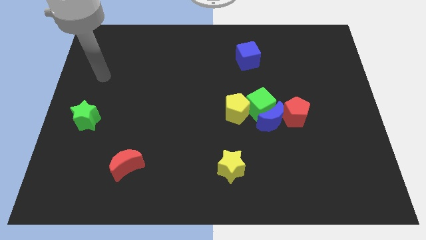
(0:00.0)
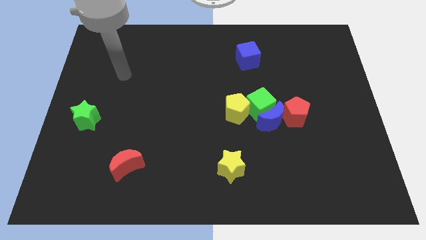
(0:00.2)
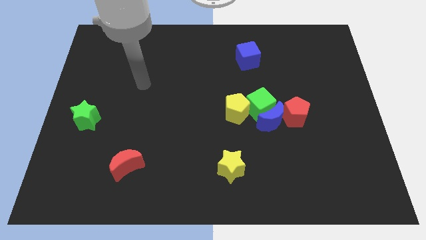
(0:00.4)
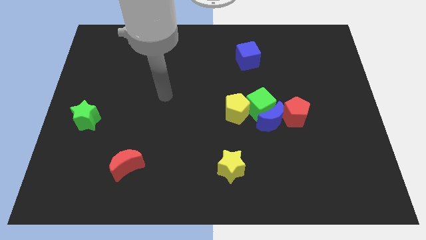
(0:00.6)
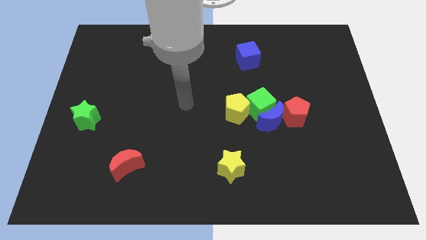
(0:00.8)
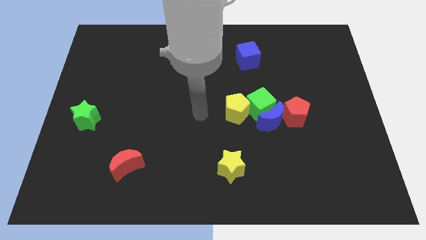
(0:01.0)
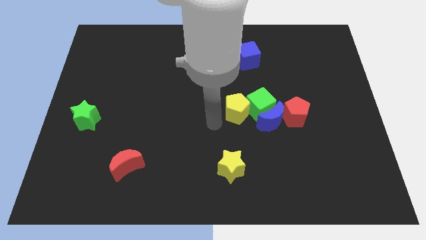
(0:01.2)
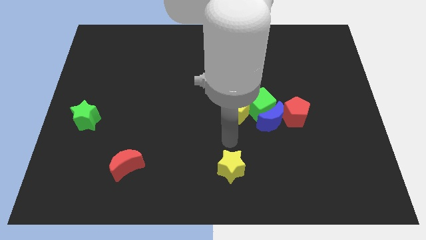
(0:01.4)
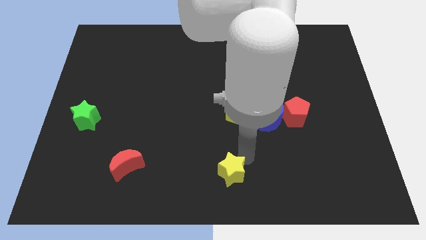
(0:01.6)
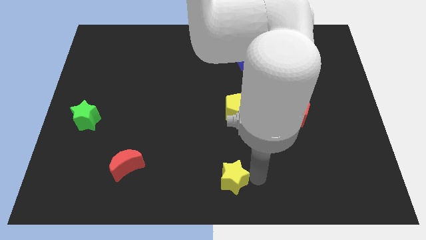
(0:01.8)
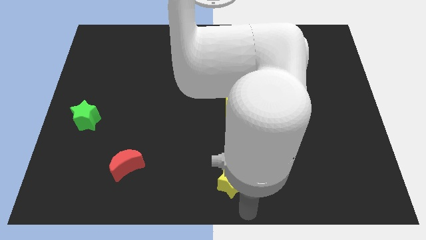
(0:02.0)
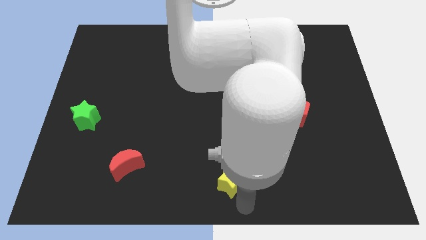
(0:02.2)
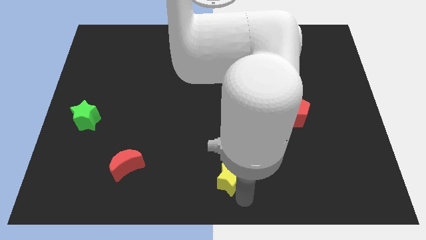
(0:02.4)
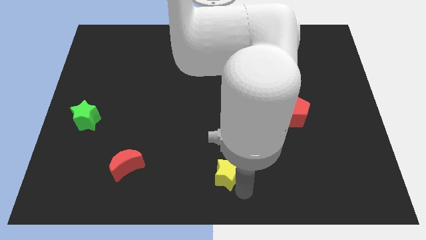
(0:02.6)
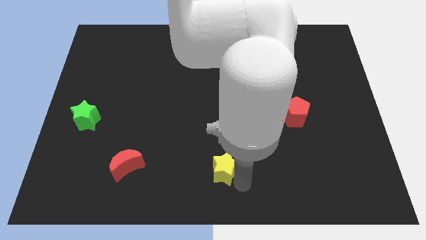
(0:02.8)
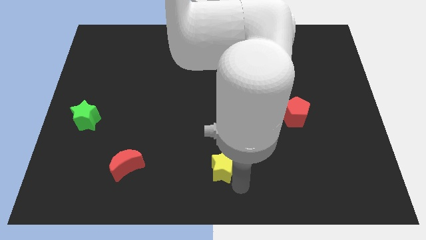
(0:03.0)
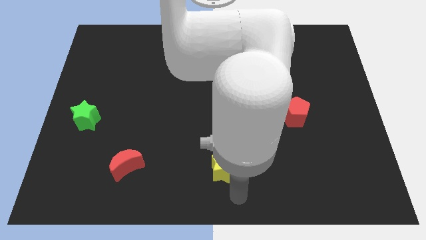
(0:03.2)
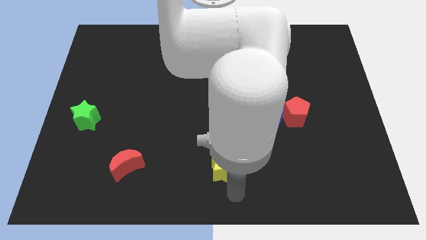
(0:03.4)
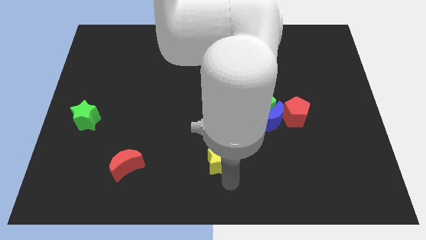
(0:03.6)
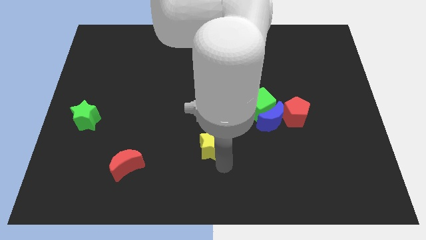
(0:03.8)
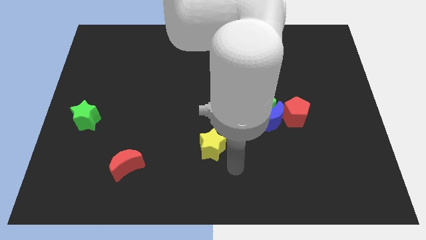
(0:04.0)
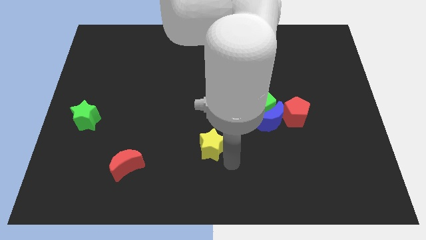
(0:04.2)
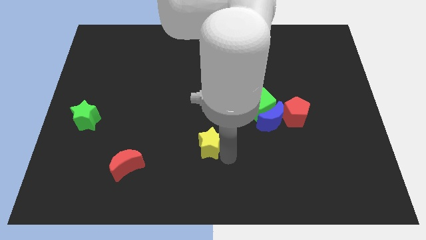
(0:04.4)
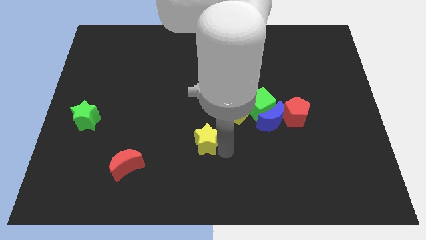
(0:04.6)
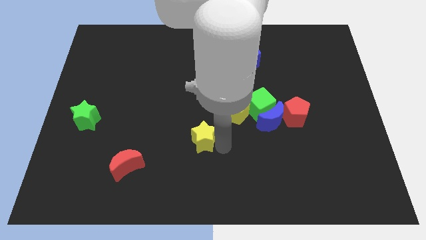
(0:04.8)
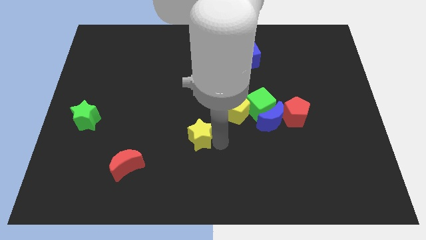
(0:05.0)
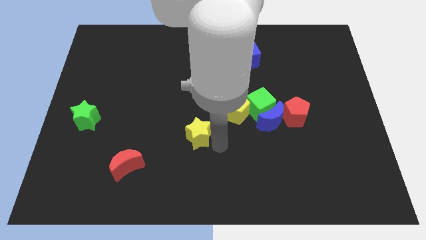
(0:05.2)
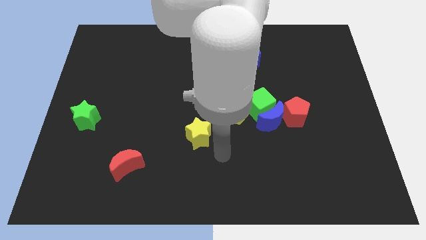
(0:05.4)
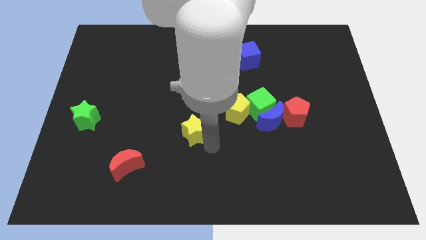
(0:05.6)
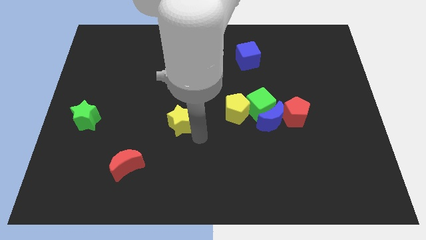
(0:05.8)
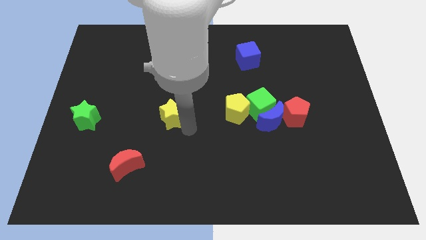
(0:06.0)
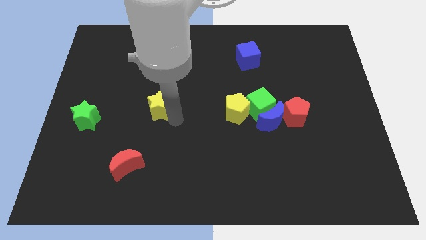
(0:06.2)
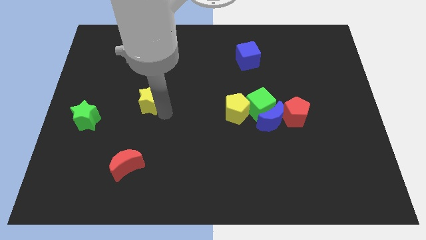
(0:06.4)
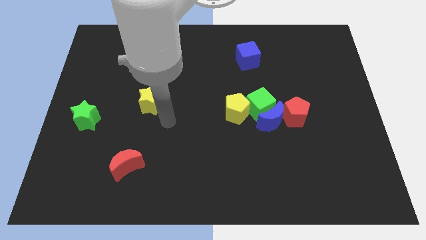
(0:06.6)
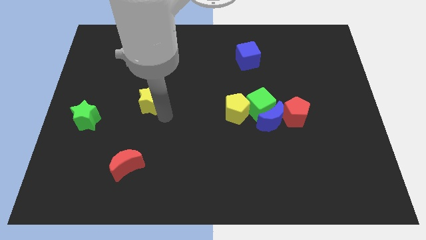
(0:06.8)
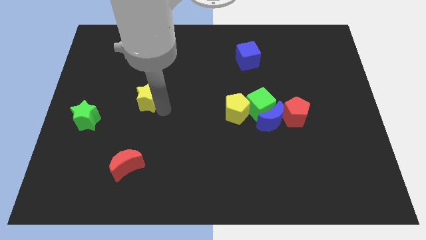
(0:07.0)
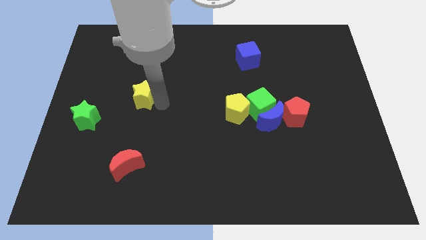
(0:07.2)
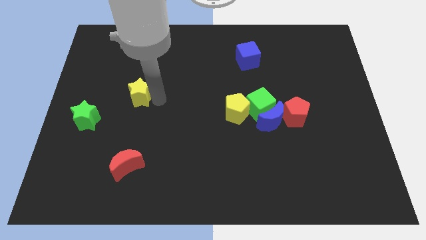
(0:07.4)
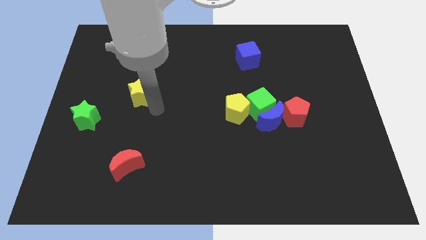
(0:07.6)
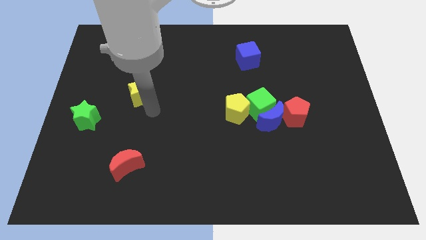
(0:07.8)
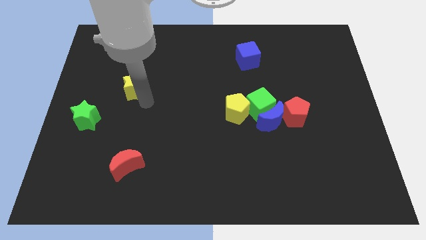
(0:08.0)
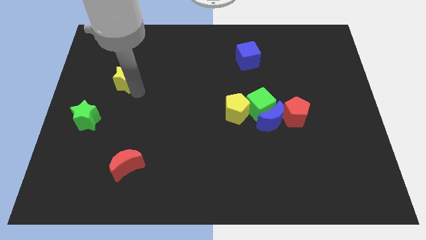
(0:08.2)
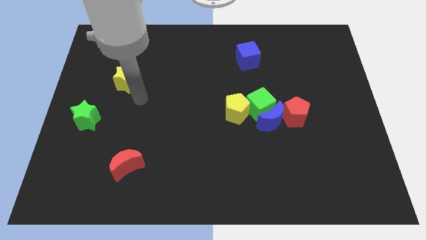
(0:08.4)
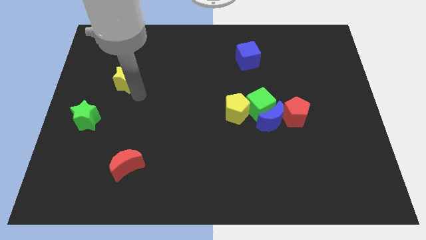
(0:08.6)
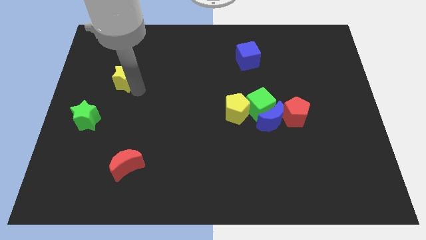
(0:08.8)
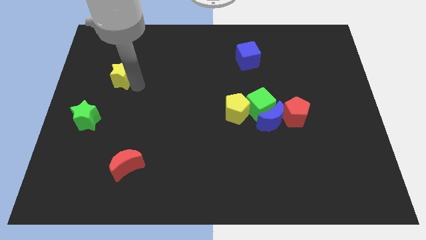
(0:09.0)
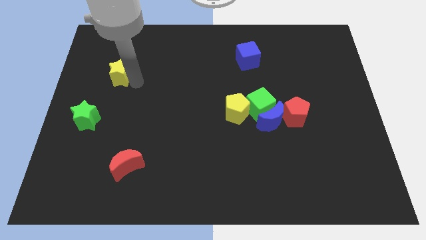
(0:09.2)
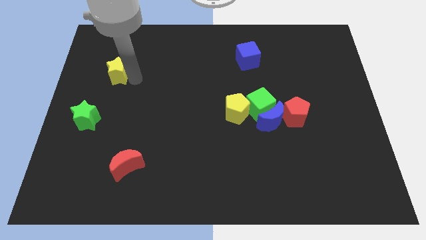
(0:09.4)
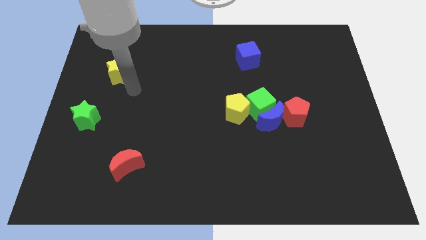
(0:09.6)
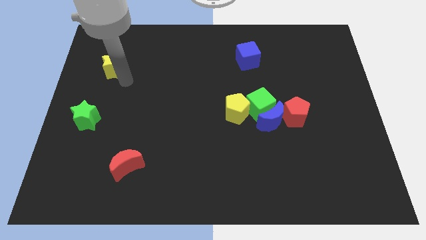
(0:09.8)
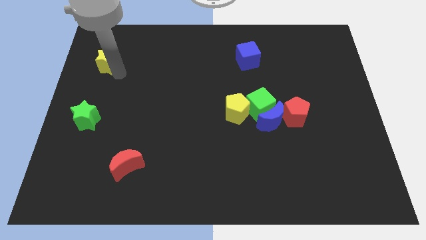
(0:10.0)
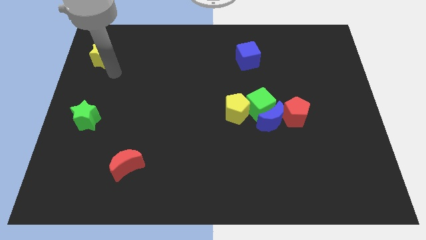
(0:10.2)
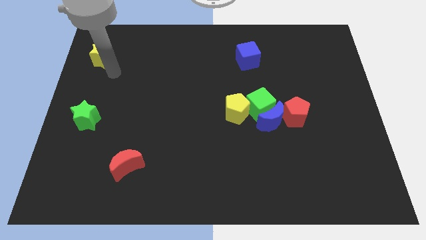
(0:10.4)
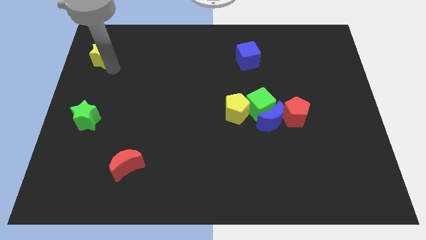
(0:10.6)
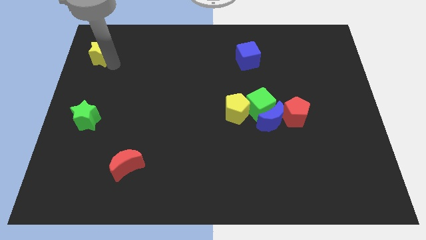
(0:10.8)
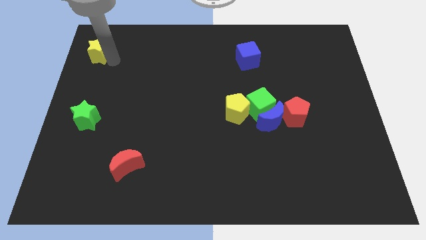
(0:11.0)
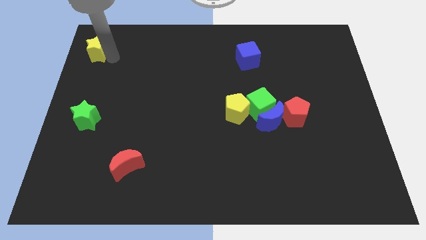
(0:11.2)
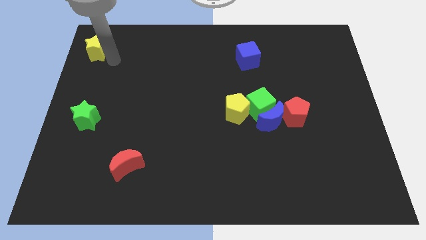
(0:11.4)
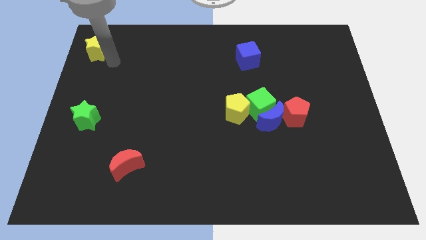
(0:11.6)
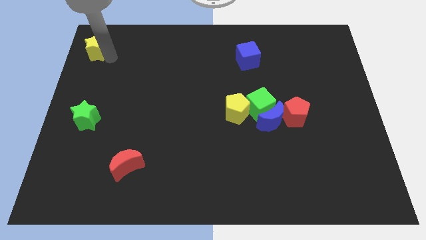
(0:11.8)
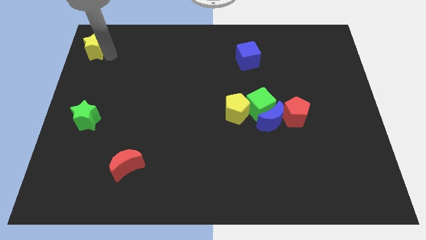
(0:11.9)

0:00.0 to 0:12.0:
move the yellow star to the top left
